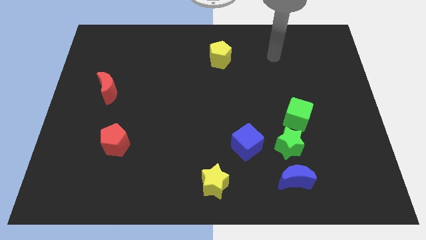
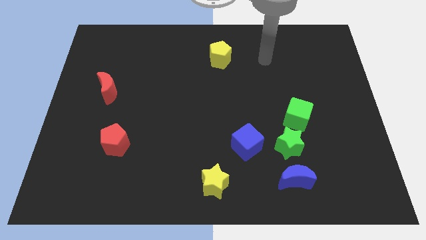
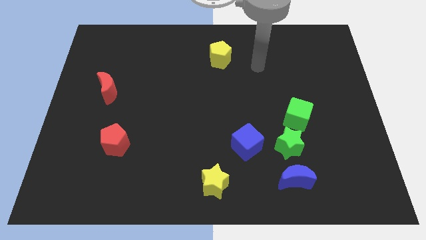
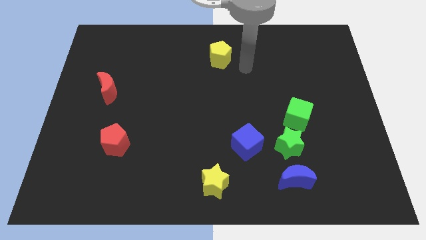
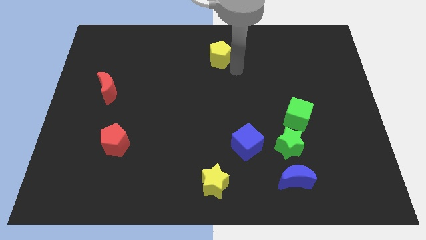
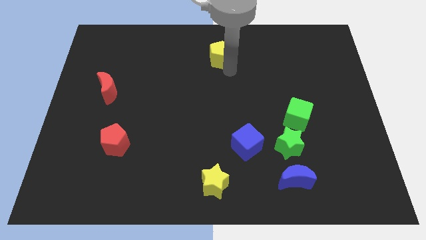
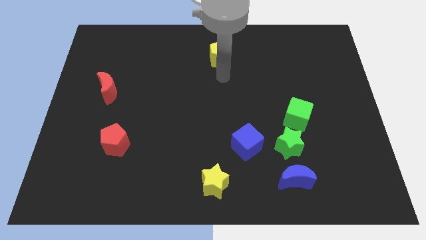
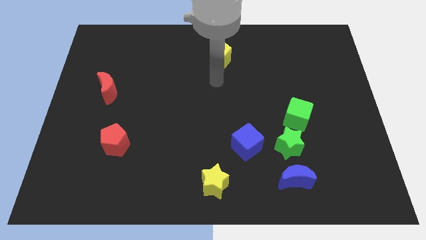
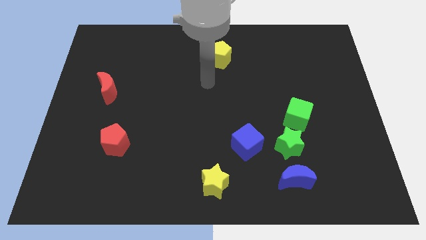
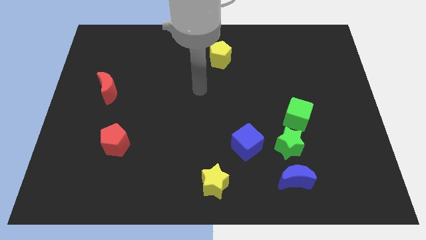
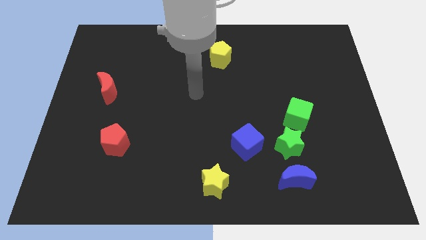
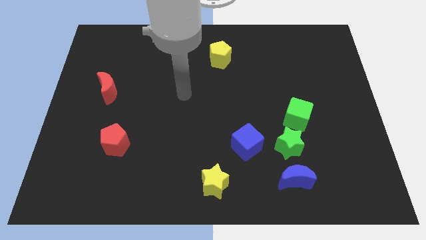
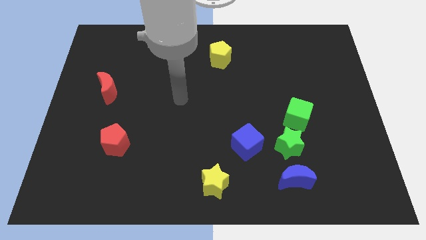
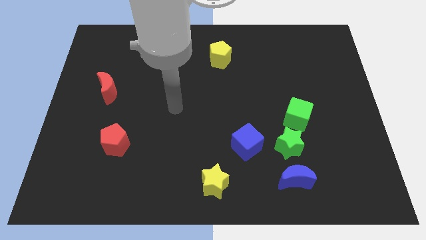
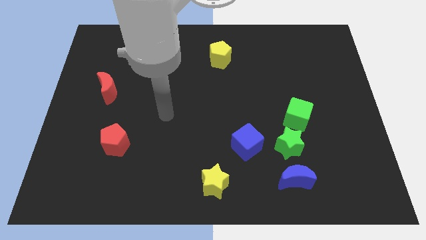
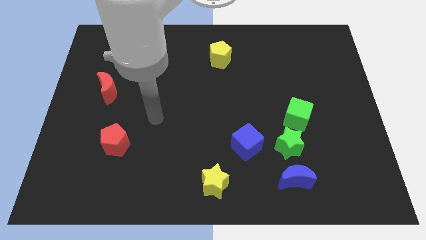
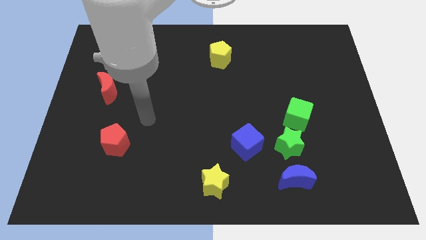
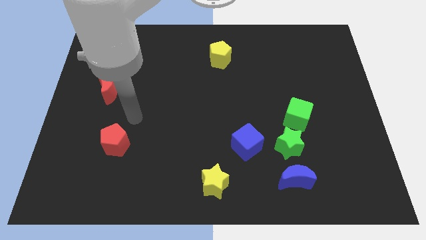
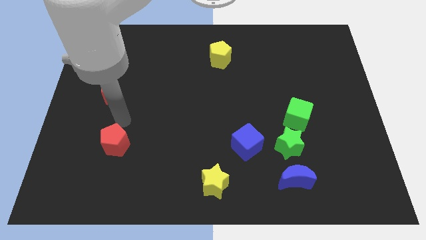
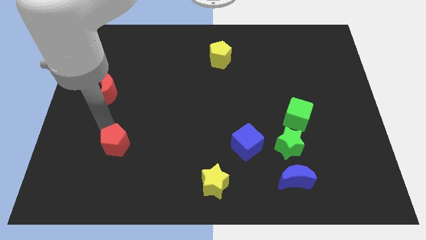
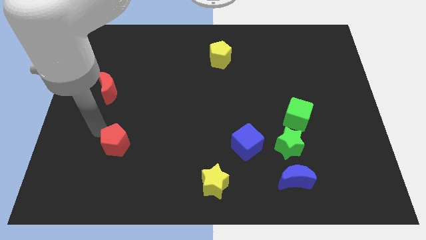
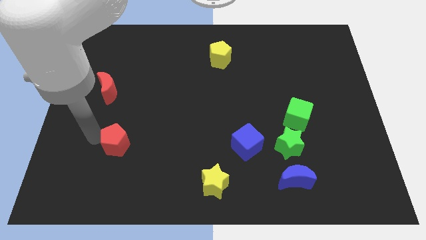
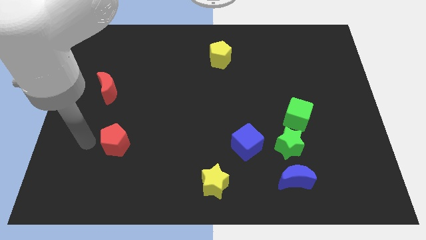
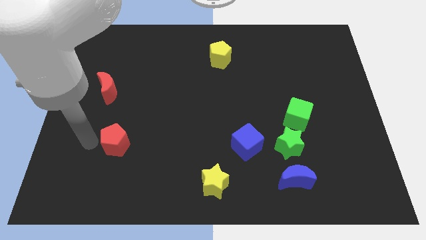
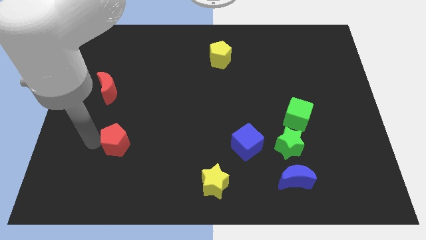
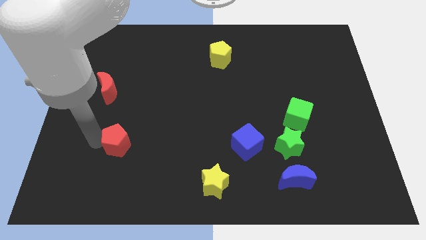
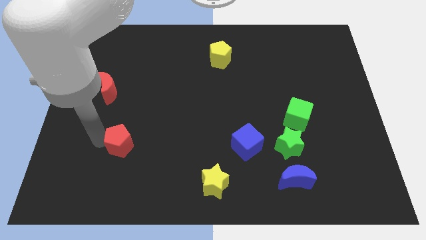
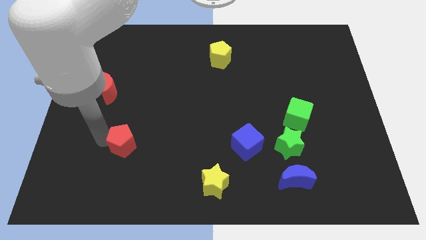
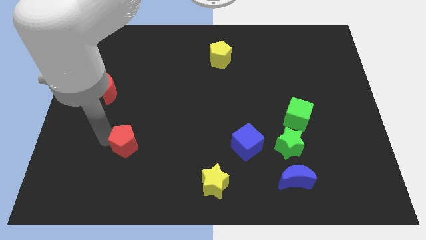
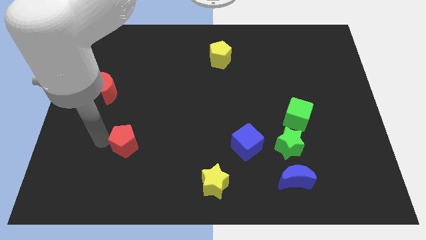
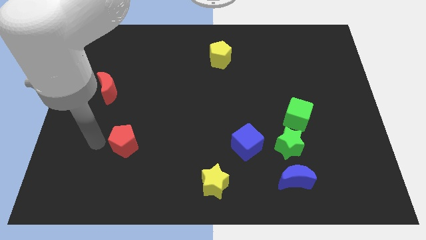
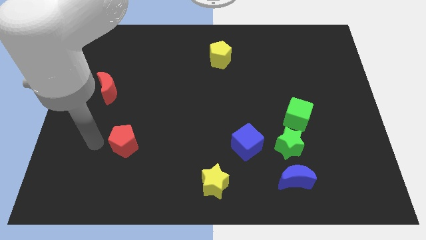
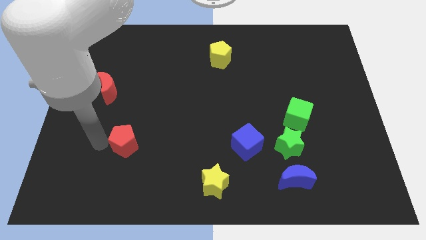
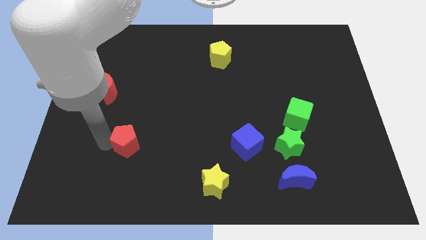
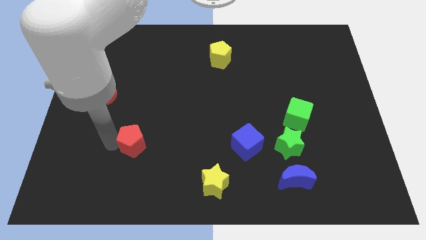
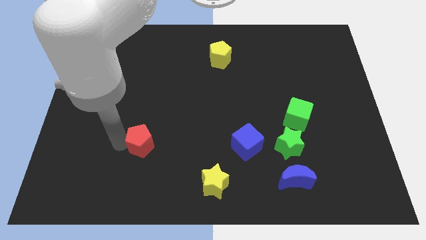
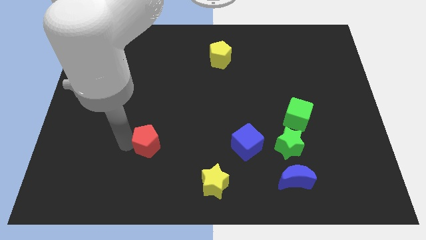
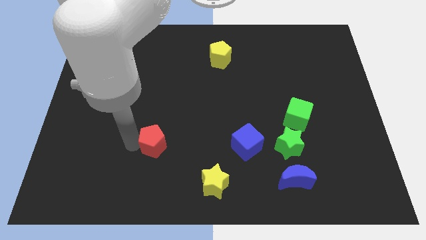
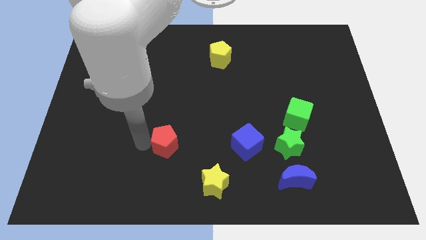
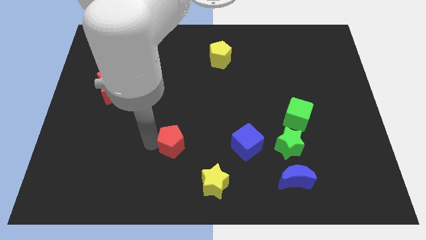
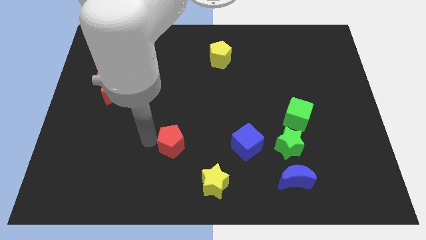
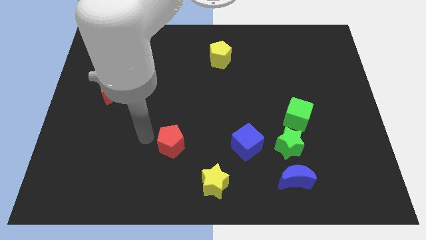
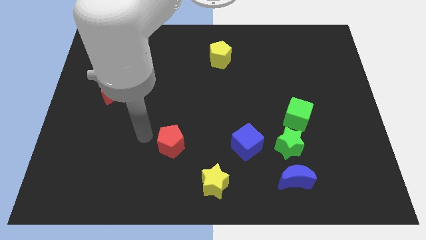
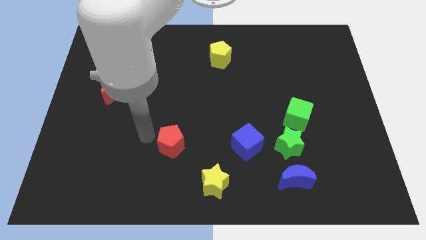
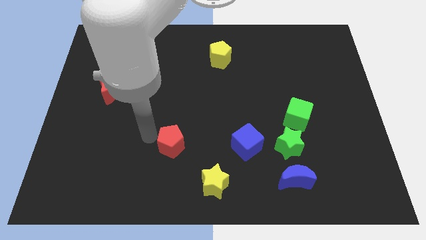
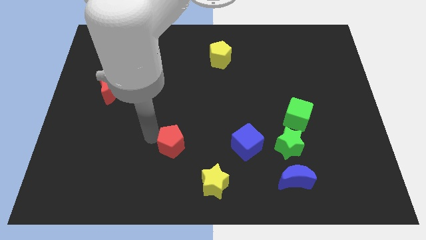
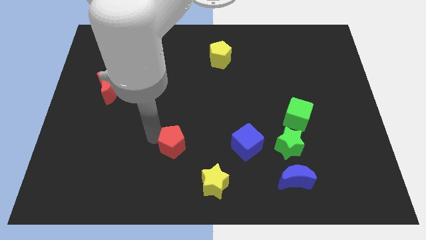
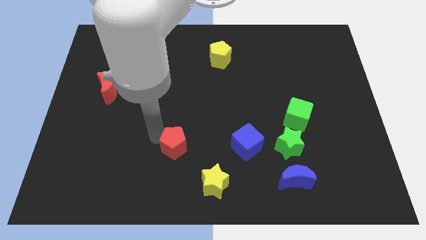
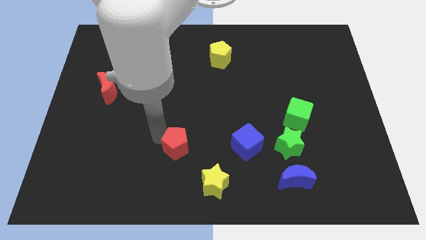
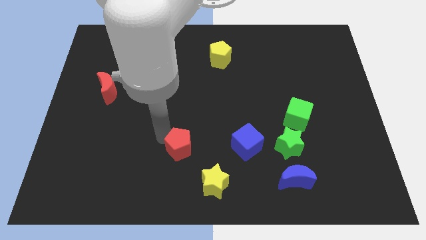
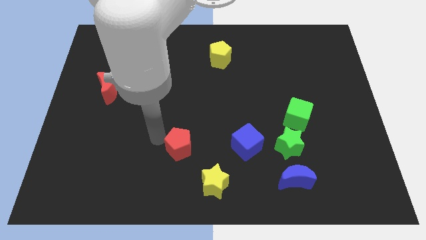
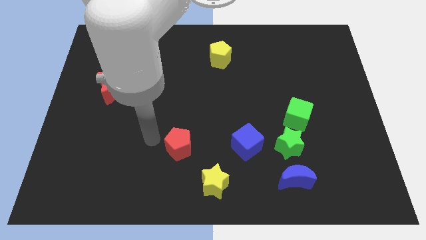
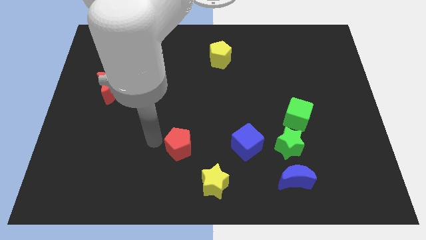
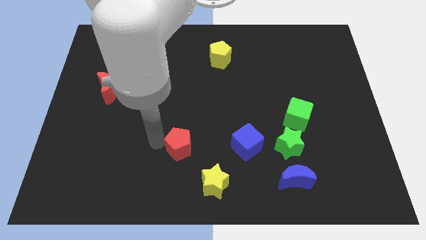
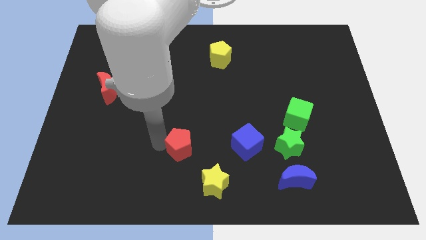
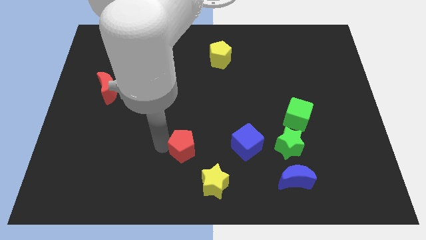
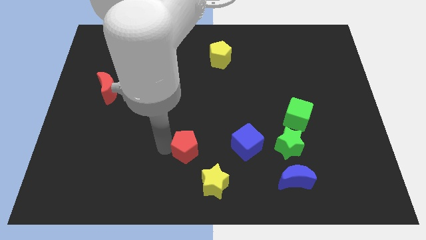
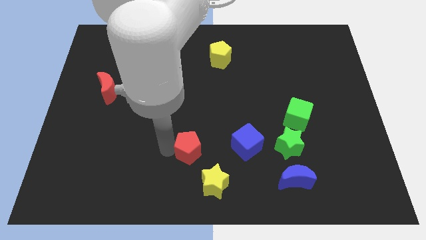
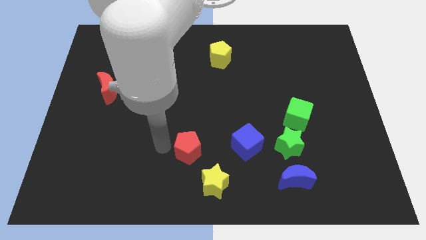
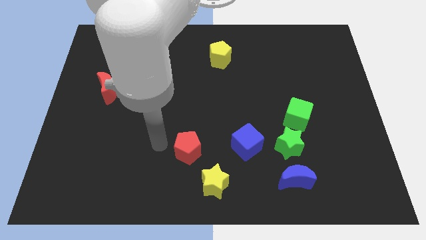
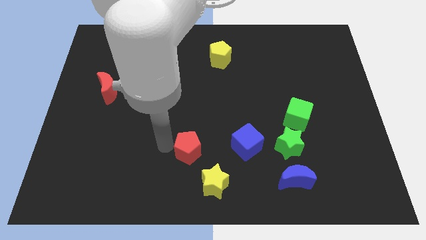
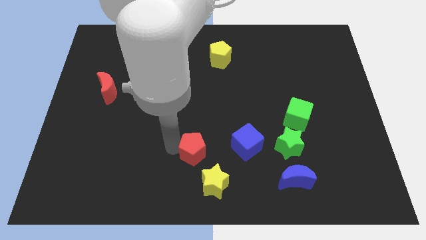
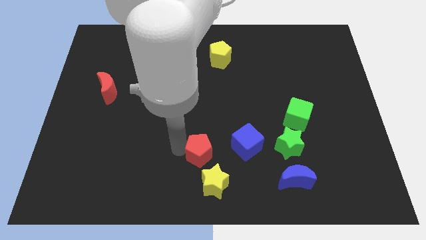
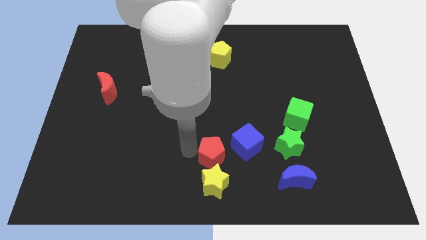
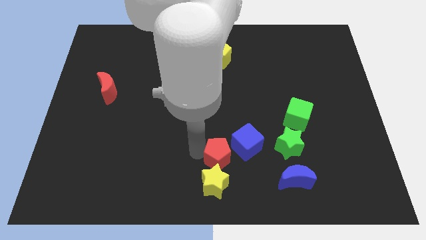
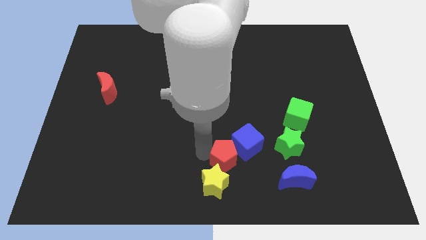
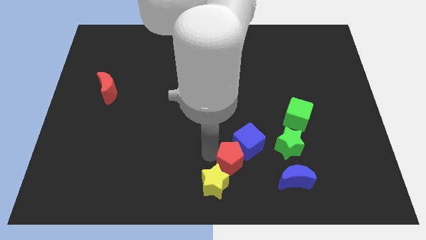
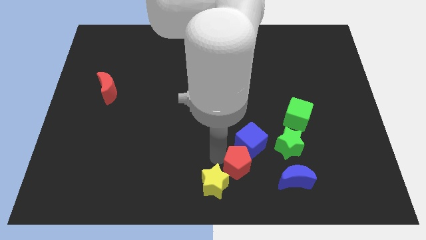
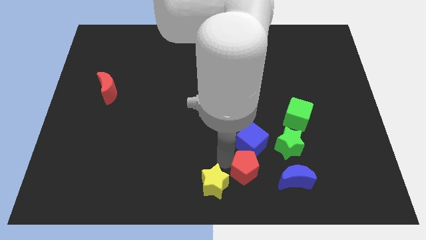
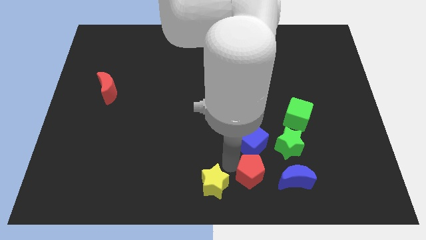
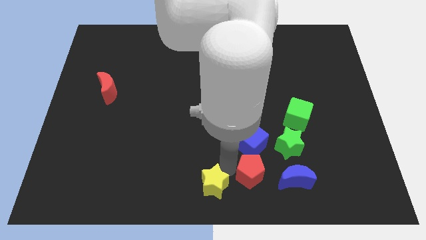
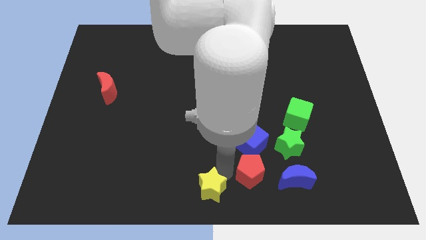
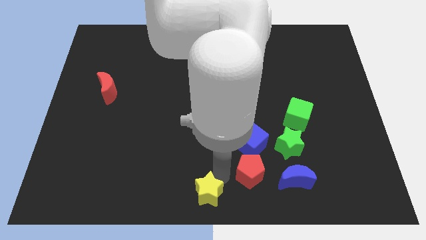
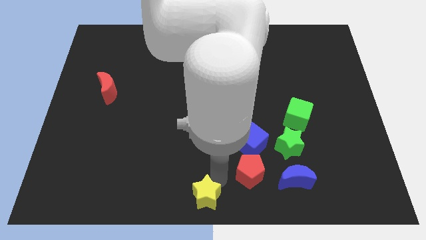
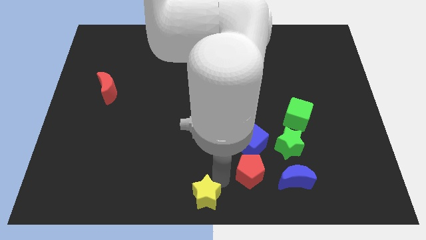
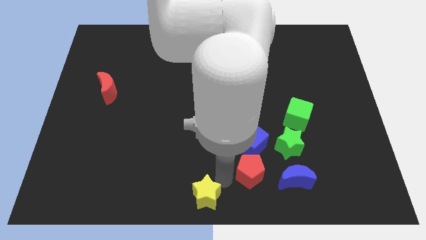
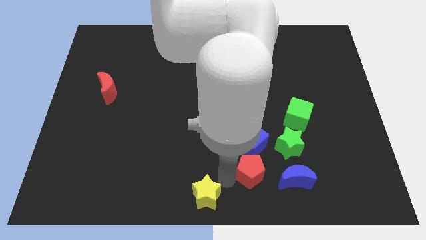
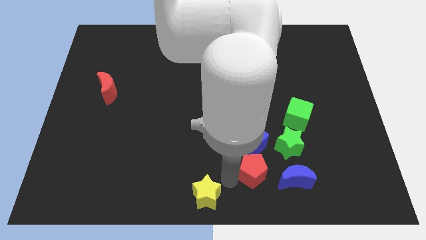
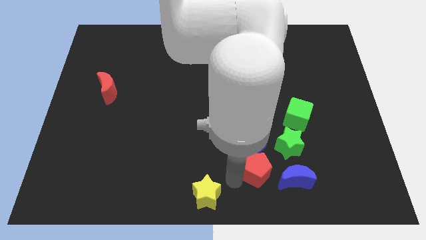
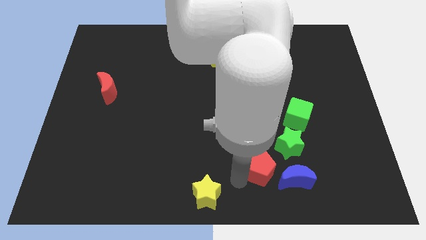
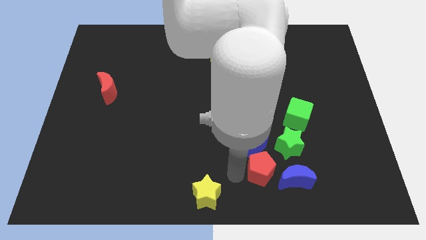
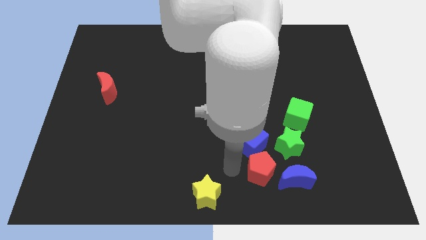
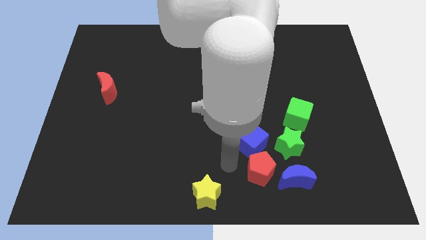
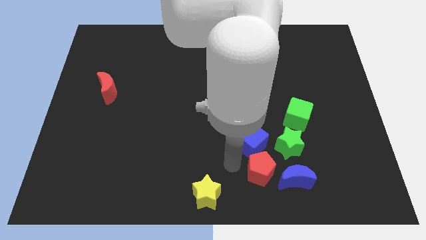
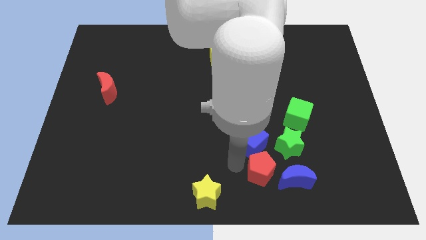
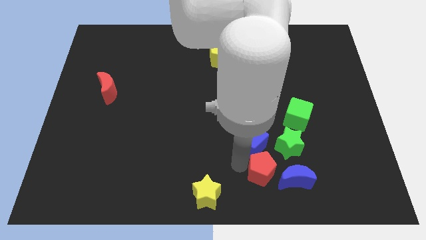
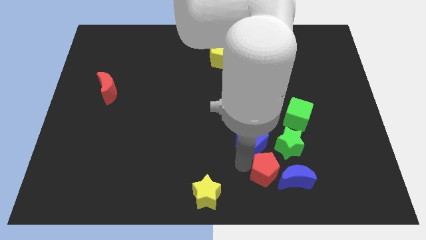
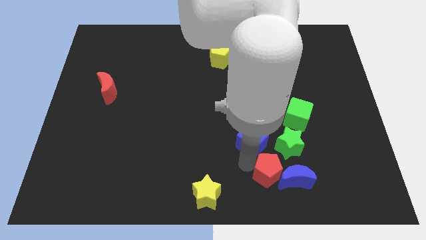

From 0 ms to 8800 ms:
slide the red pentagon to the blue moon
